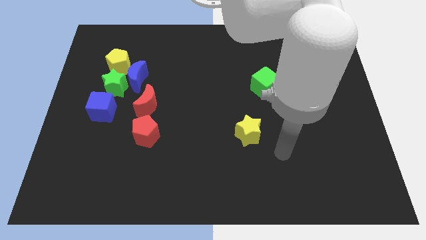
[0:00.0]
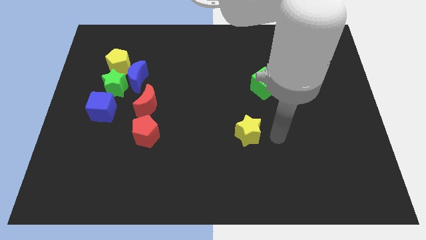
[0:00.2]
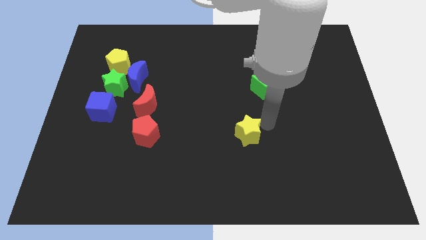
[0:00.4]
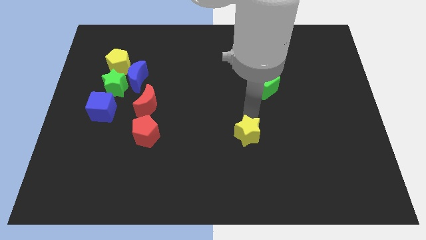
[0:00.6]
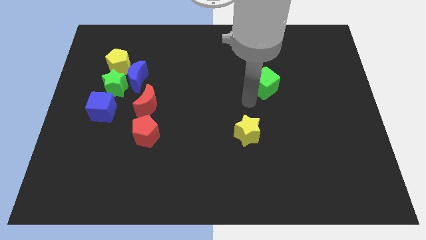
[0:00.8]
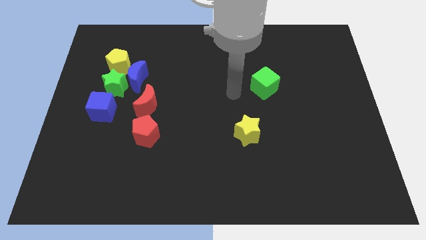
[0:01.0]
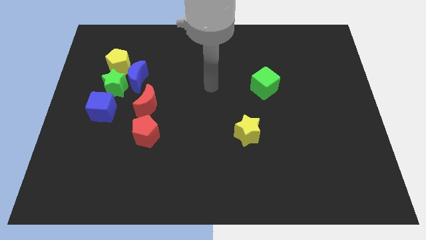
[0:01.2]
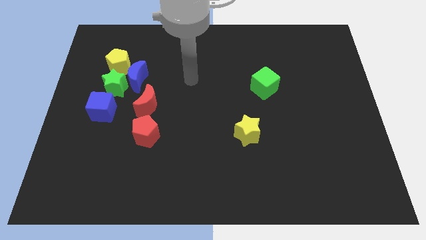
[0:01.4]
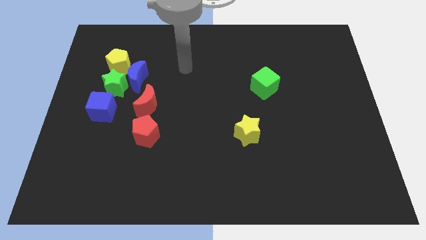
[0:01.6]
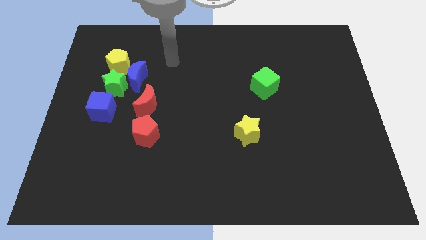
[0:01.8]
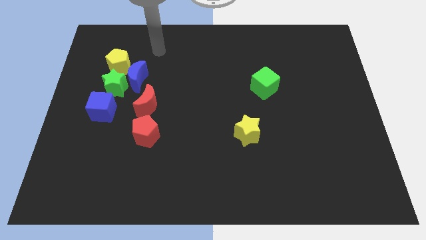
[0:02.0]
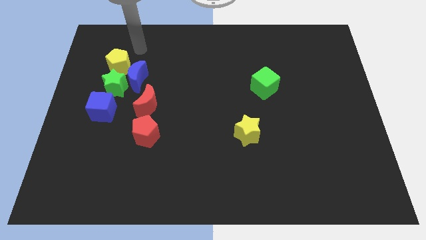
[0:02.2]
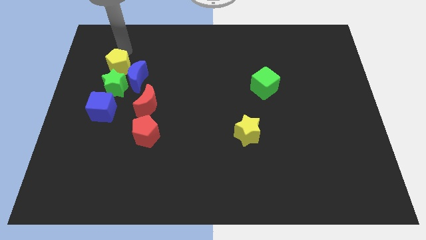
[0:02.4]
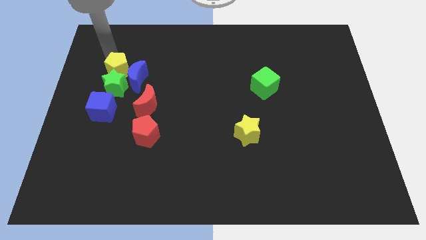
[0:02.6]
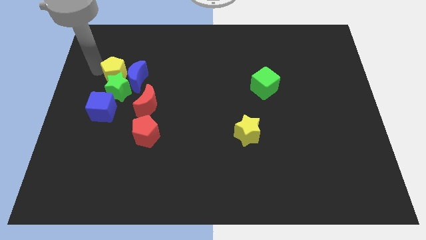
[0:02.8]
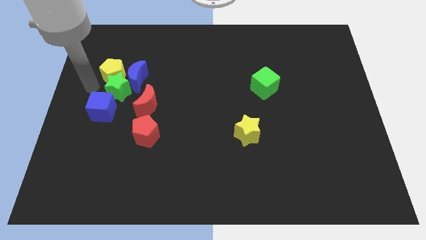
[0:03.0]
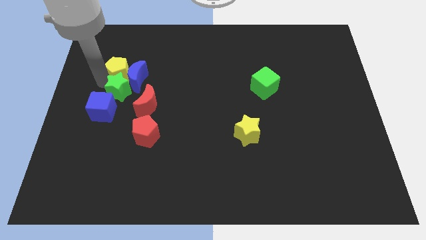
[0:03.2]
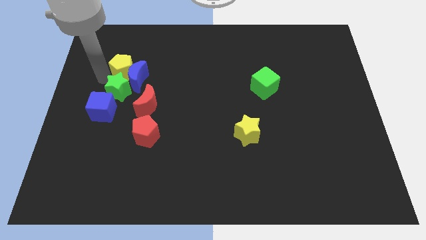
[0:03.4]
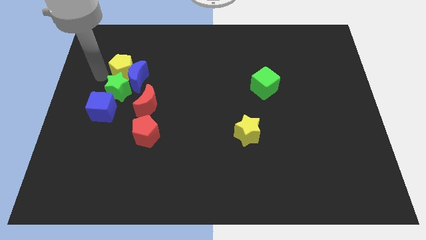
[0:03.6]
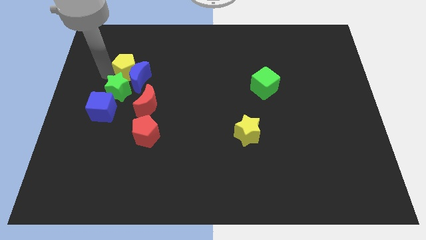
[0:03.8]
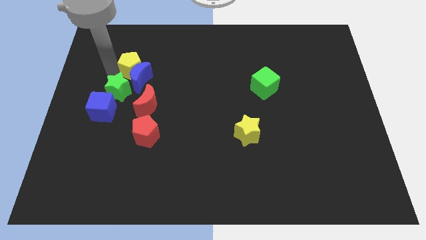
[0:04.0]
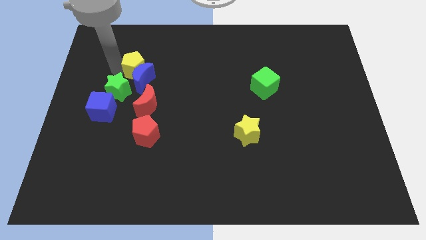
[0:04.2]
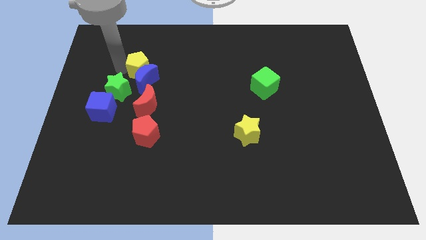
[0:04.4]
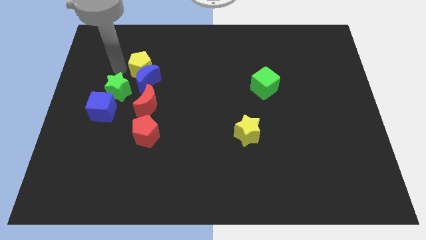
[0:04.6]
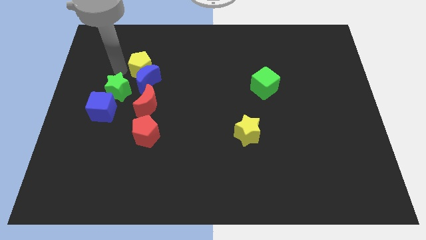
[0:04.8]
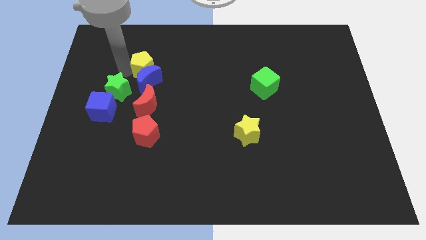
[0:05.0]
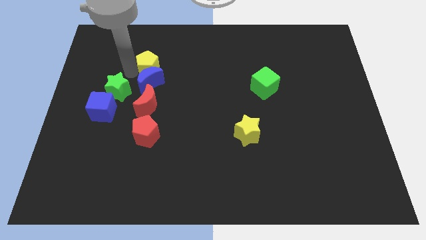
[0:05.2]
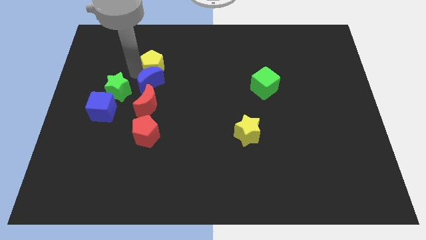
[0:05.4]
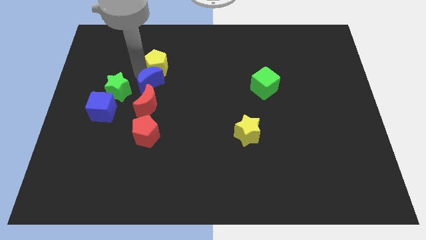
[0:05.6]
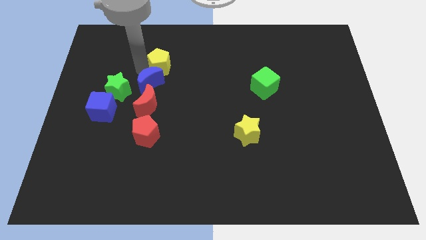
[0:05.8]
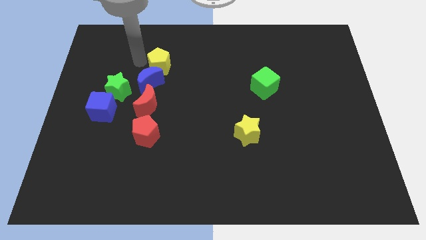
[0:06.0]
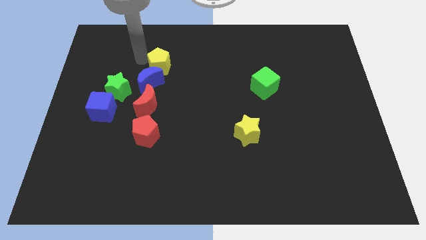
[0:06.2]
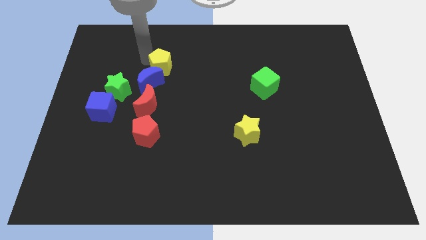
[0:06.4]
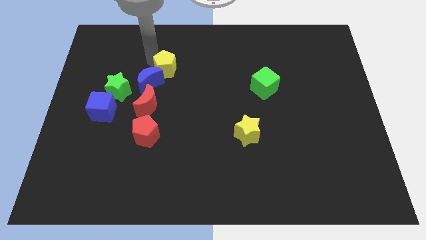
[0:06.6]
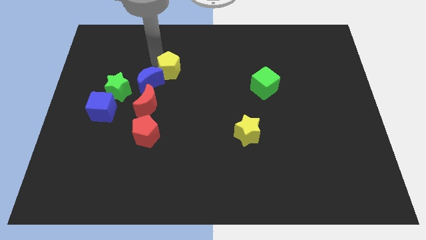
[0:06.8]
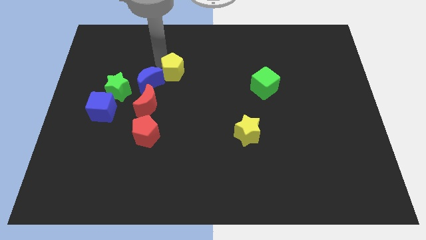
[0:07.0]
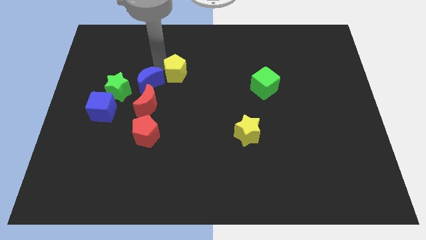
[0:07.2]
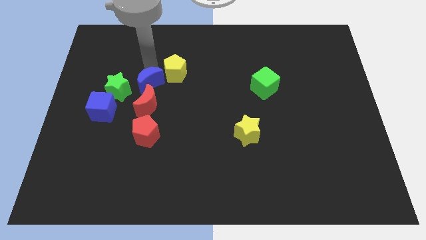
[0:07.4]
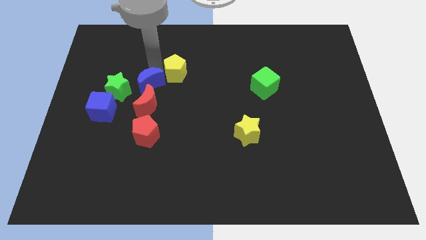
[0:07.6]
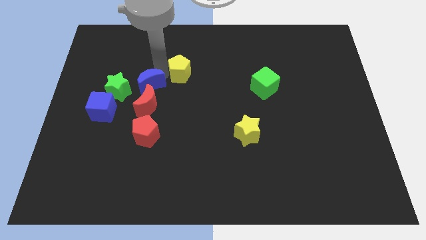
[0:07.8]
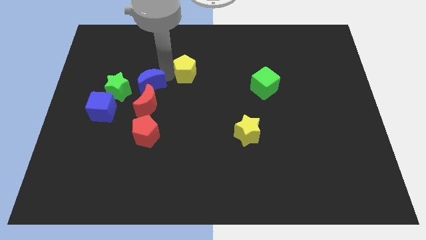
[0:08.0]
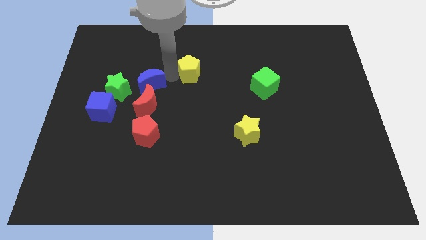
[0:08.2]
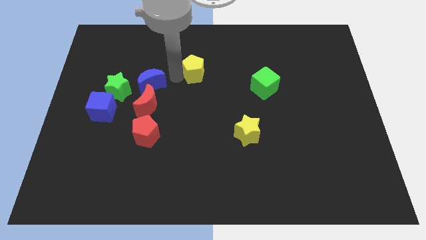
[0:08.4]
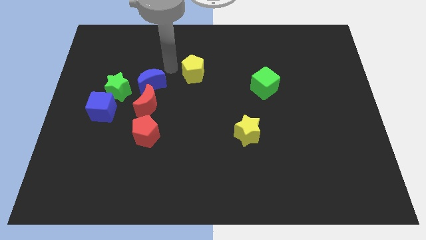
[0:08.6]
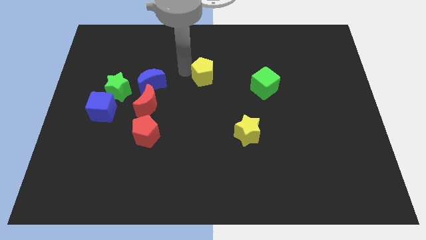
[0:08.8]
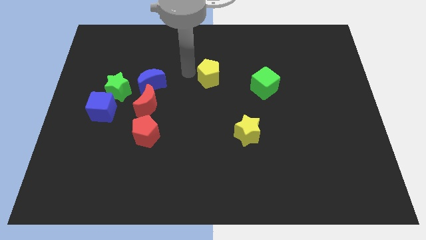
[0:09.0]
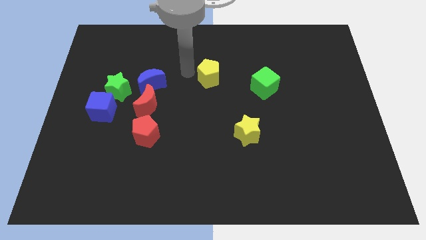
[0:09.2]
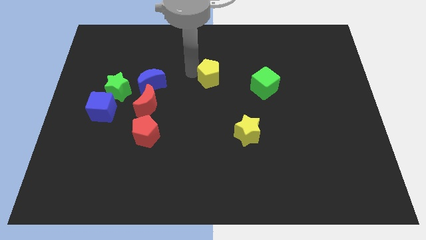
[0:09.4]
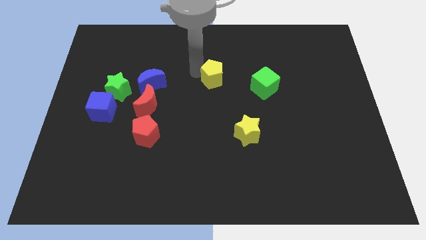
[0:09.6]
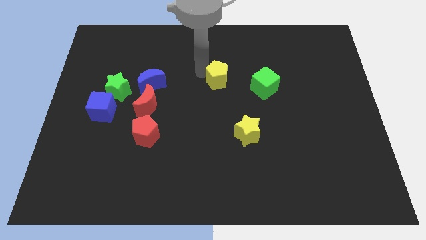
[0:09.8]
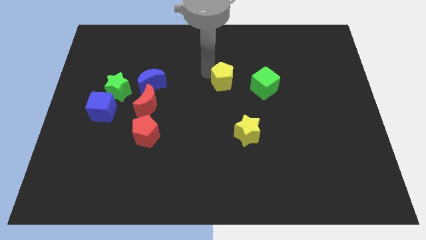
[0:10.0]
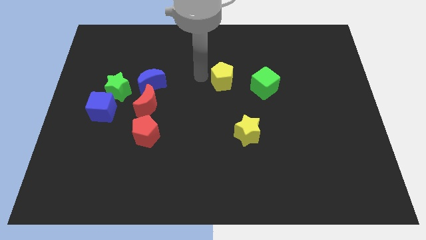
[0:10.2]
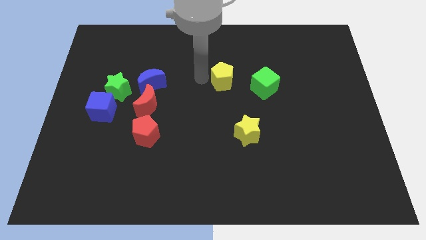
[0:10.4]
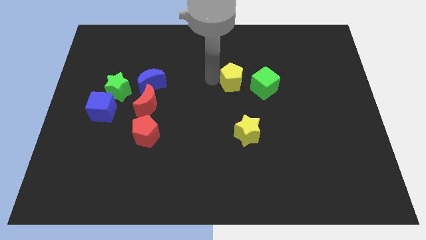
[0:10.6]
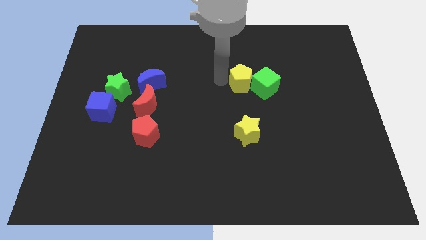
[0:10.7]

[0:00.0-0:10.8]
move the yellow pentagon towards the green cube

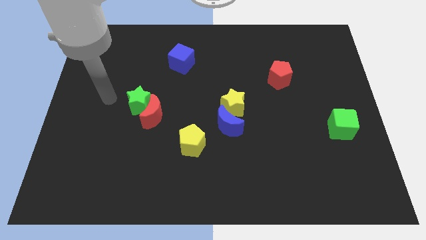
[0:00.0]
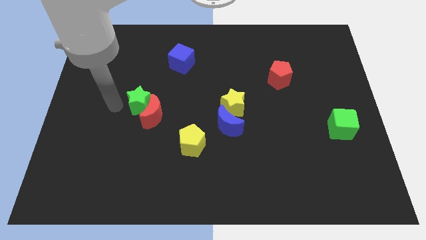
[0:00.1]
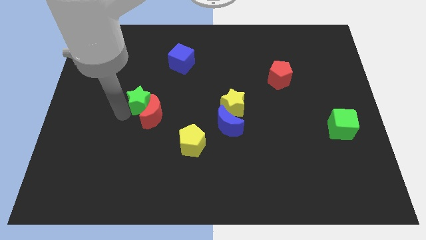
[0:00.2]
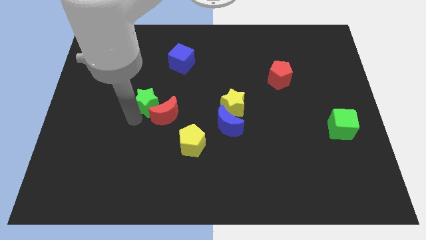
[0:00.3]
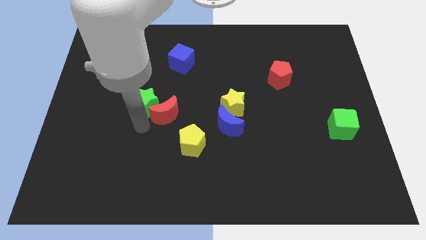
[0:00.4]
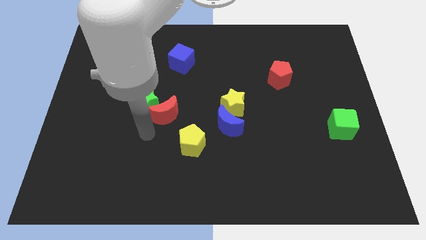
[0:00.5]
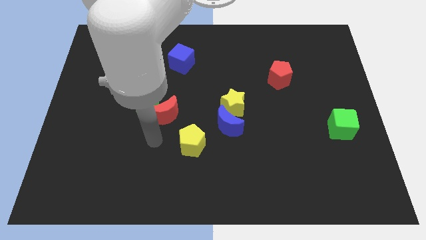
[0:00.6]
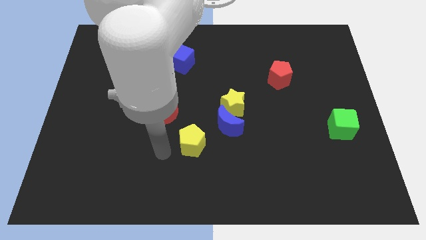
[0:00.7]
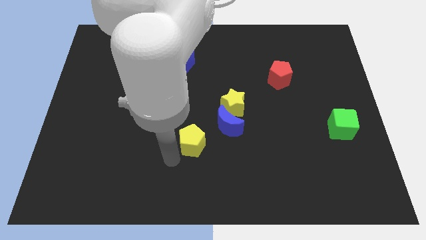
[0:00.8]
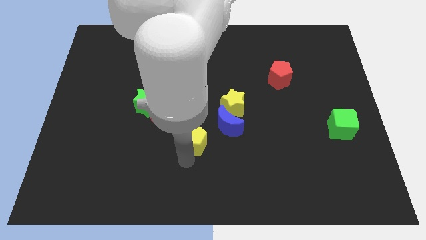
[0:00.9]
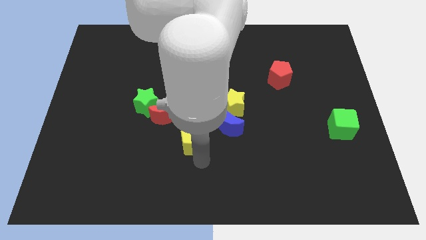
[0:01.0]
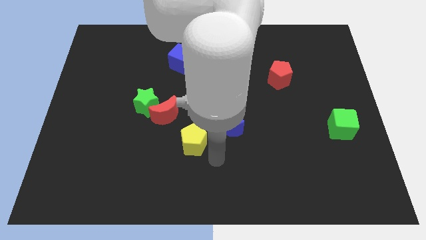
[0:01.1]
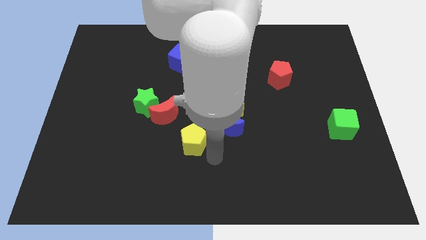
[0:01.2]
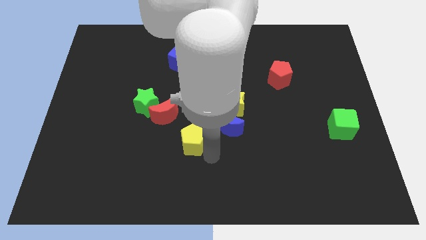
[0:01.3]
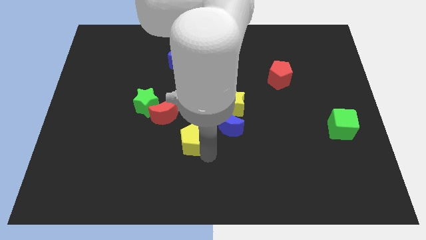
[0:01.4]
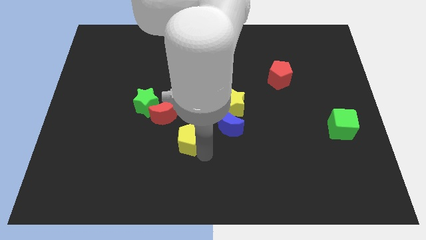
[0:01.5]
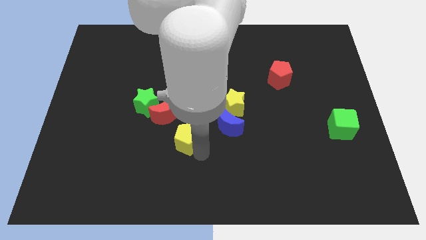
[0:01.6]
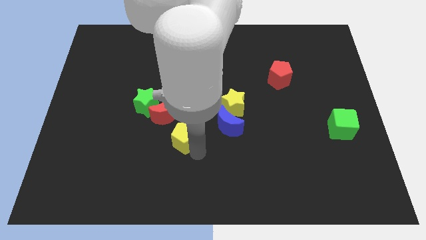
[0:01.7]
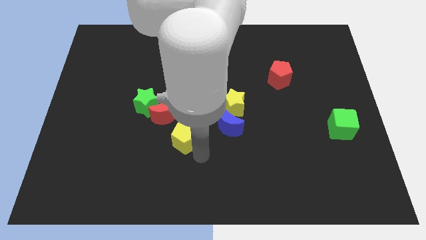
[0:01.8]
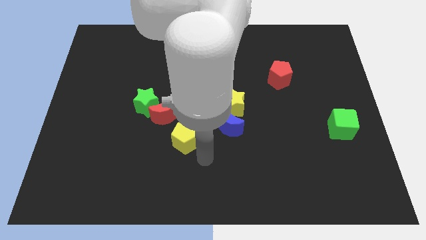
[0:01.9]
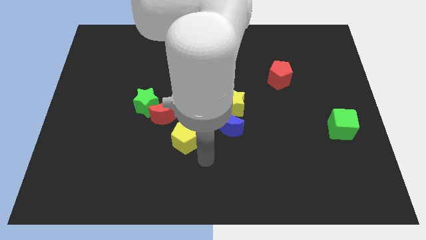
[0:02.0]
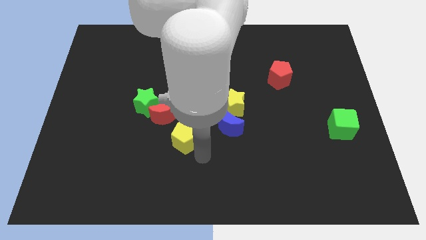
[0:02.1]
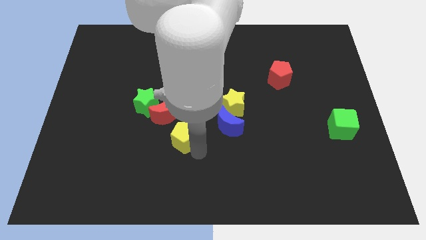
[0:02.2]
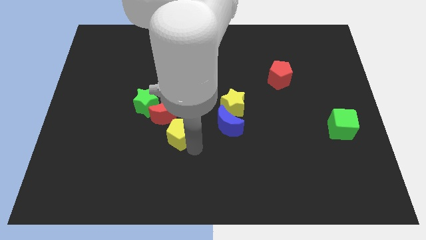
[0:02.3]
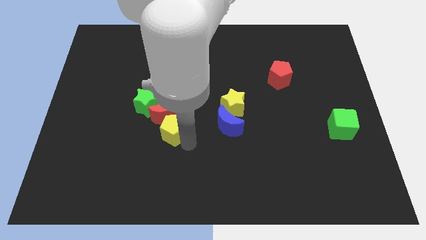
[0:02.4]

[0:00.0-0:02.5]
move the yellow pentagon towards the red moon
